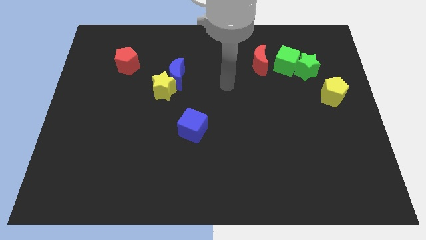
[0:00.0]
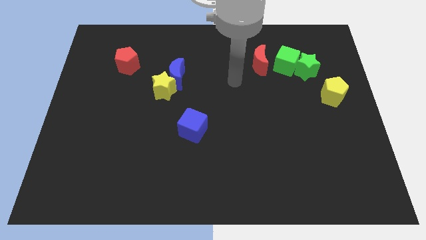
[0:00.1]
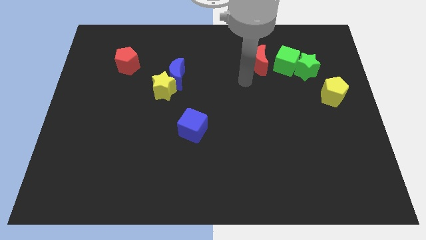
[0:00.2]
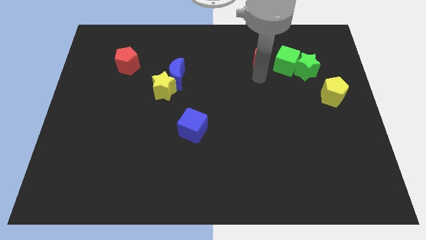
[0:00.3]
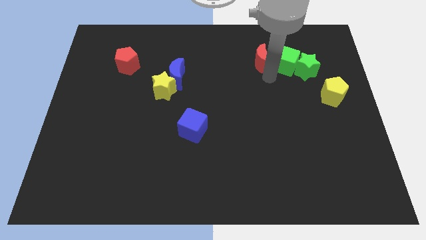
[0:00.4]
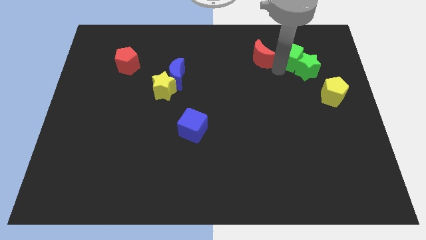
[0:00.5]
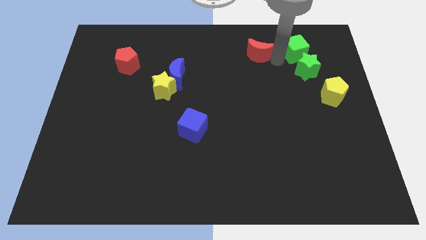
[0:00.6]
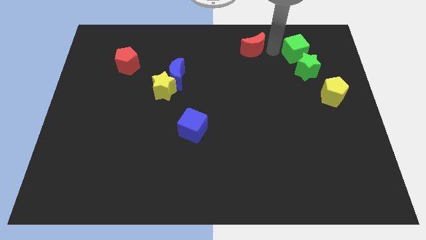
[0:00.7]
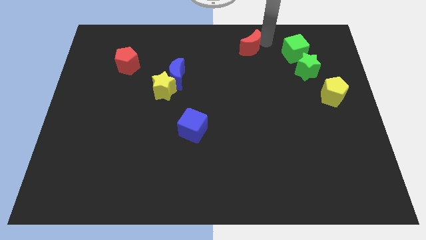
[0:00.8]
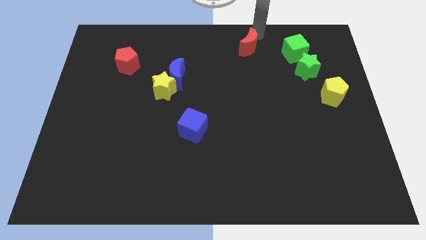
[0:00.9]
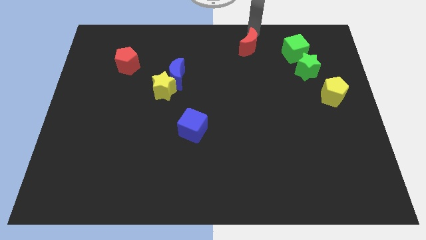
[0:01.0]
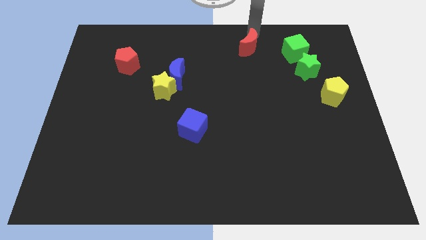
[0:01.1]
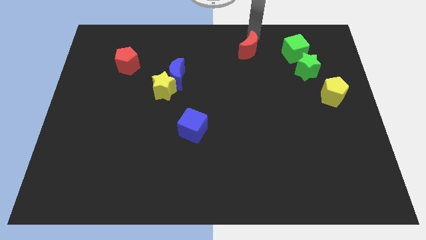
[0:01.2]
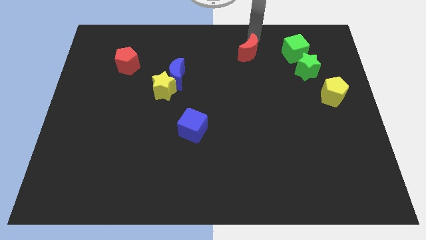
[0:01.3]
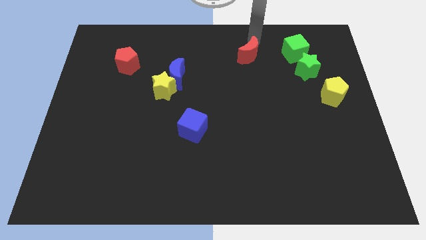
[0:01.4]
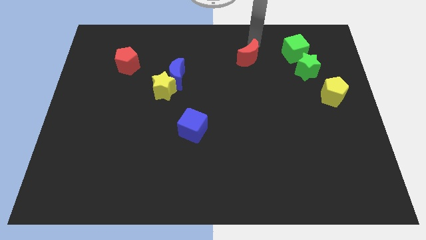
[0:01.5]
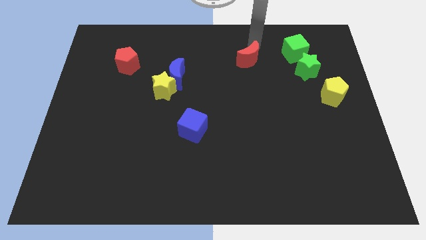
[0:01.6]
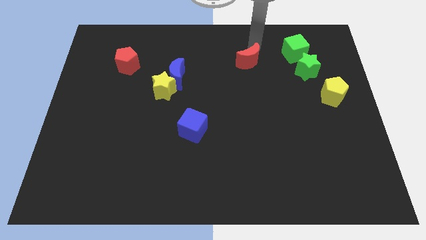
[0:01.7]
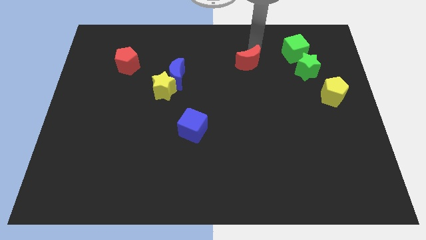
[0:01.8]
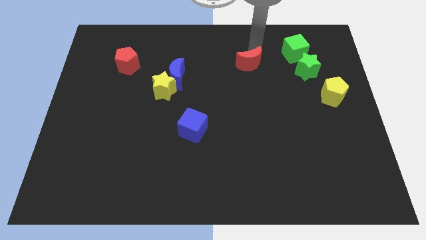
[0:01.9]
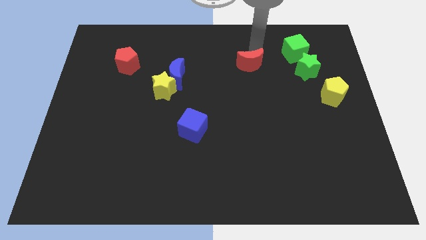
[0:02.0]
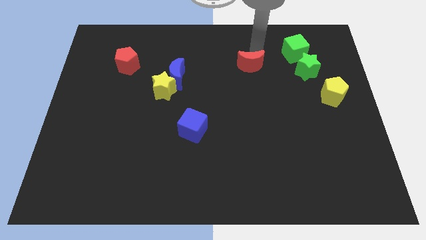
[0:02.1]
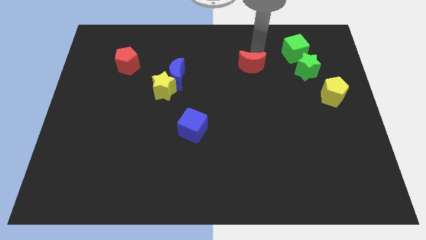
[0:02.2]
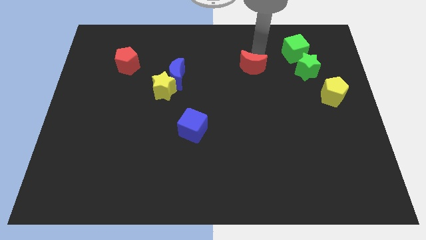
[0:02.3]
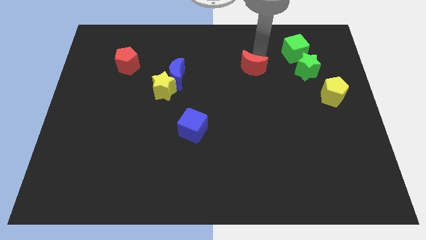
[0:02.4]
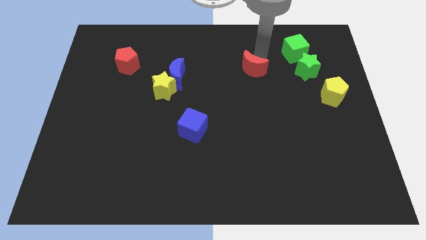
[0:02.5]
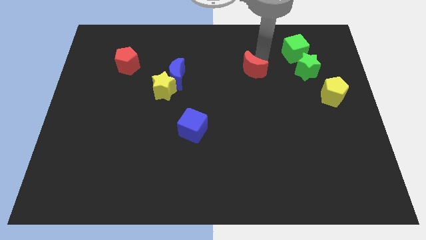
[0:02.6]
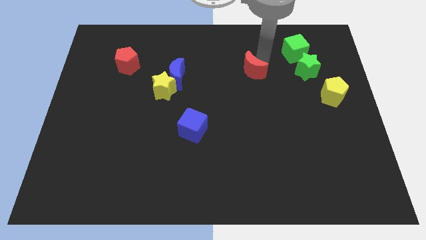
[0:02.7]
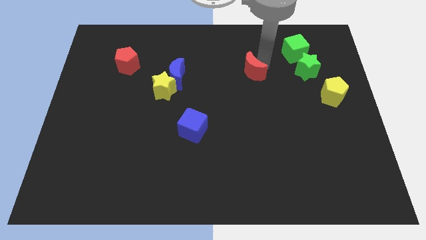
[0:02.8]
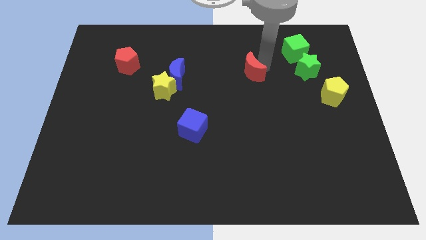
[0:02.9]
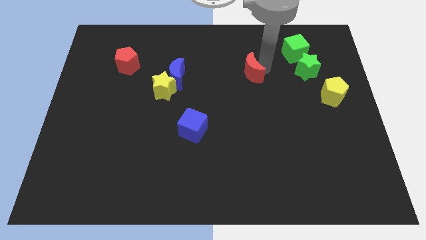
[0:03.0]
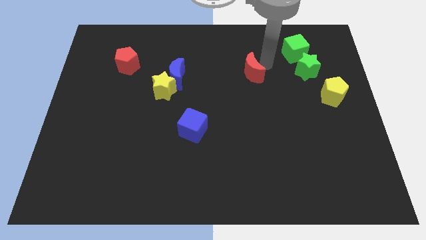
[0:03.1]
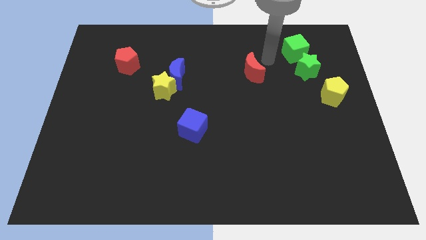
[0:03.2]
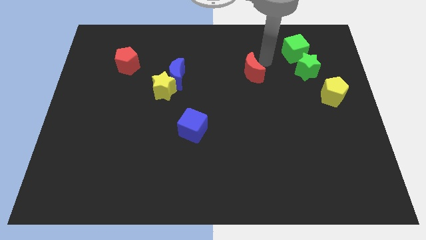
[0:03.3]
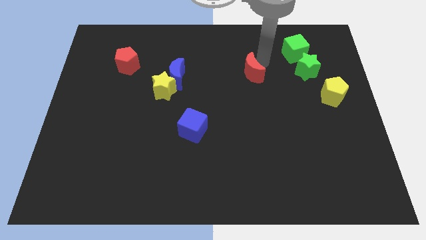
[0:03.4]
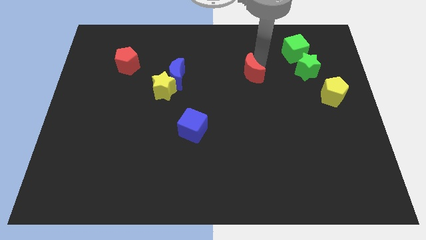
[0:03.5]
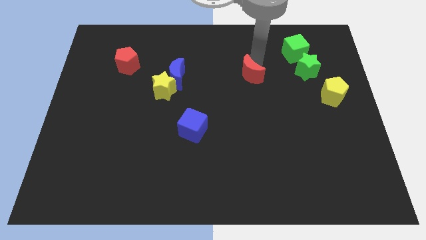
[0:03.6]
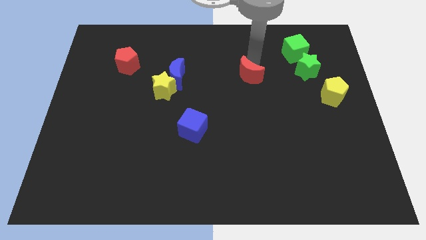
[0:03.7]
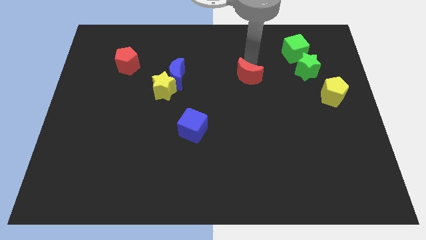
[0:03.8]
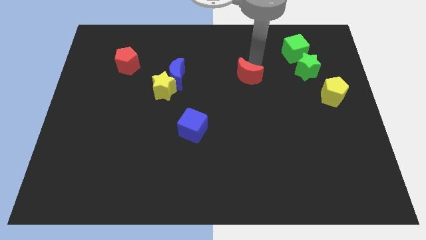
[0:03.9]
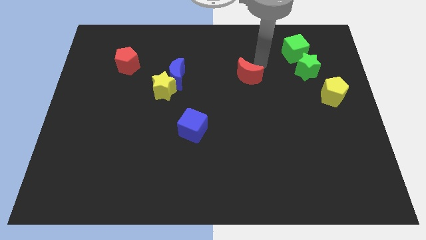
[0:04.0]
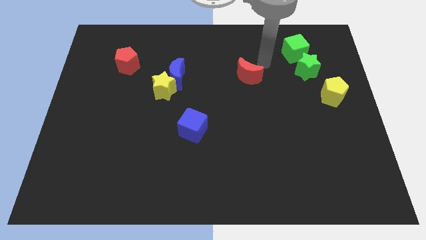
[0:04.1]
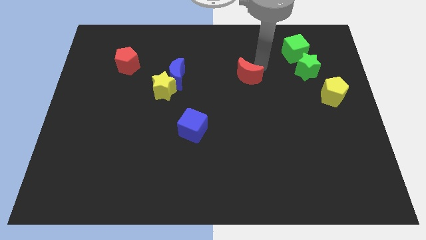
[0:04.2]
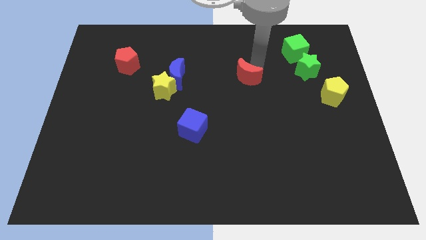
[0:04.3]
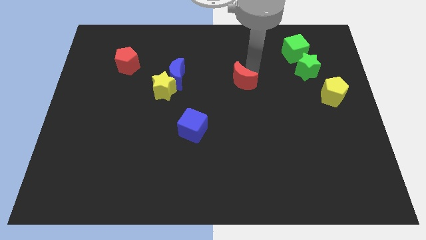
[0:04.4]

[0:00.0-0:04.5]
move the red moon down and to the left diagonally a bit

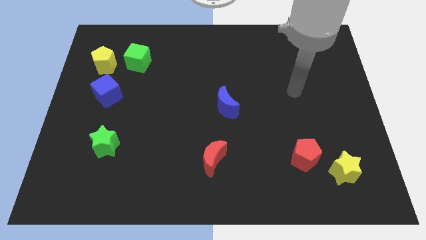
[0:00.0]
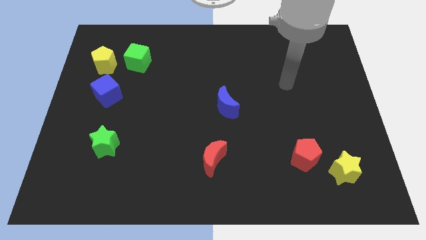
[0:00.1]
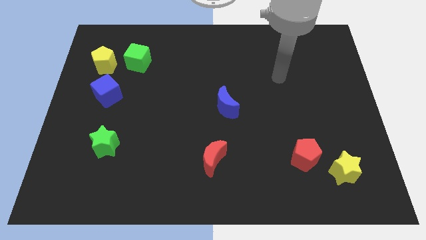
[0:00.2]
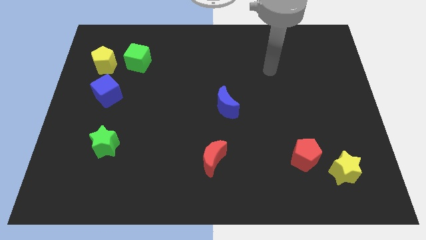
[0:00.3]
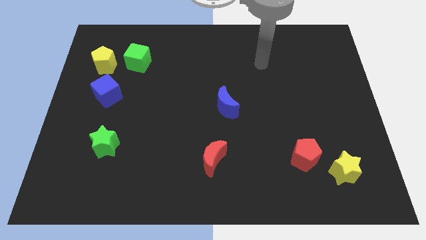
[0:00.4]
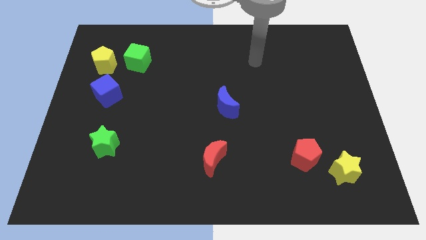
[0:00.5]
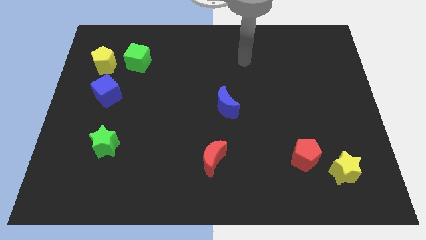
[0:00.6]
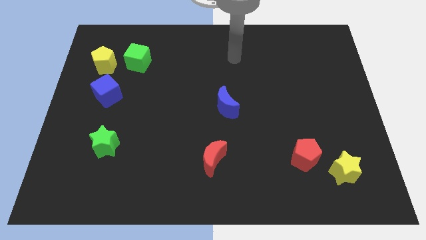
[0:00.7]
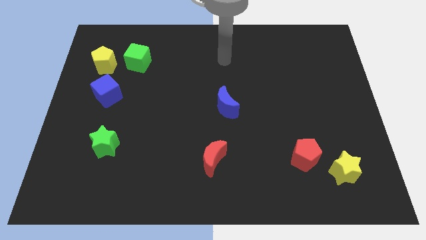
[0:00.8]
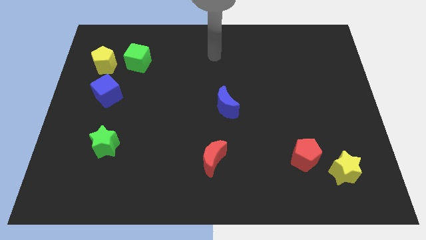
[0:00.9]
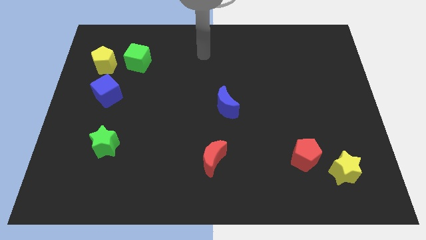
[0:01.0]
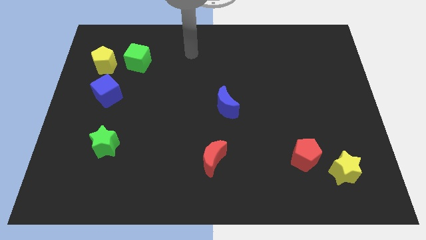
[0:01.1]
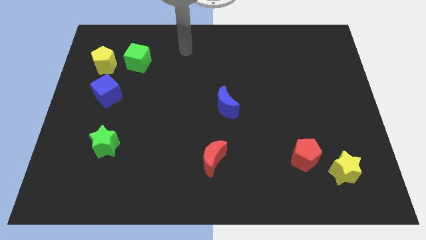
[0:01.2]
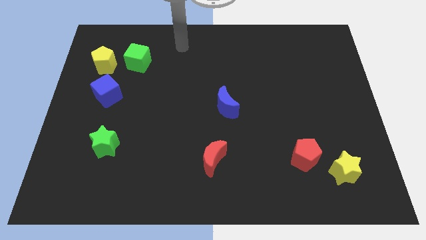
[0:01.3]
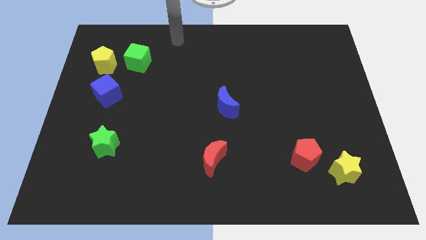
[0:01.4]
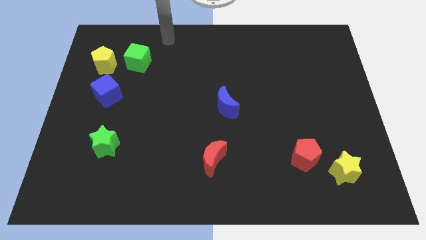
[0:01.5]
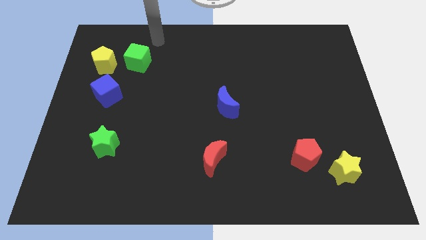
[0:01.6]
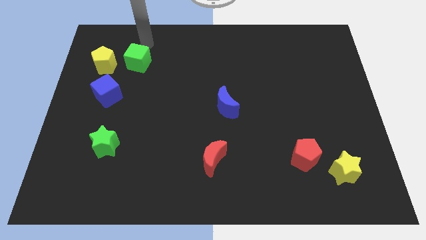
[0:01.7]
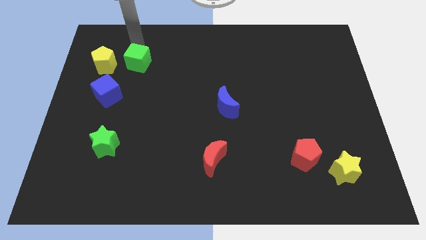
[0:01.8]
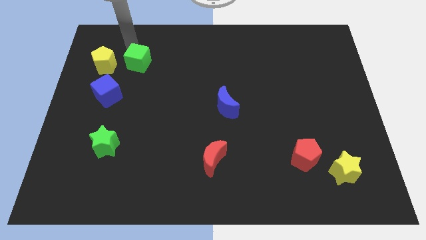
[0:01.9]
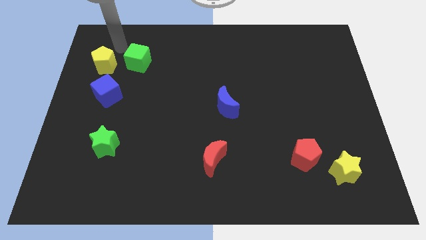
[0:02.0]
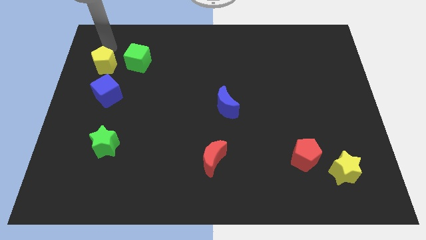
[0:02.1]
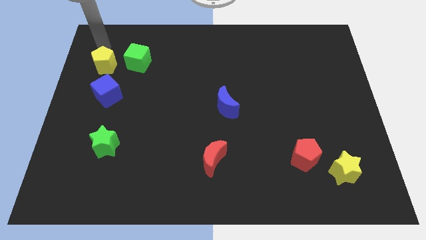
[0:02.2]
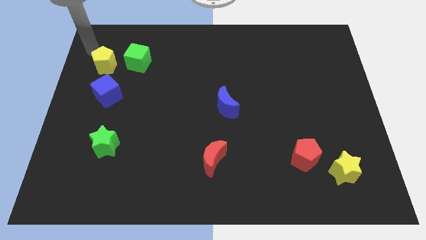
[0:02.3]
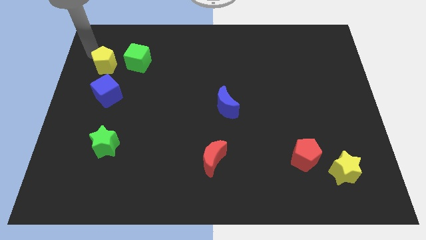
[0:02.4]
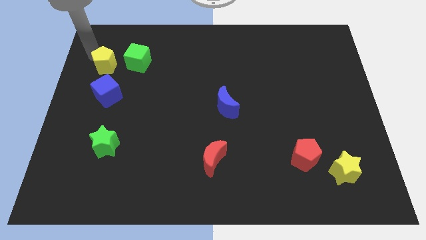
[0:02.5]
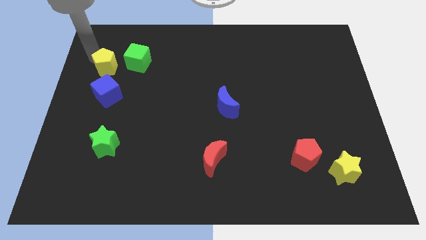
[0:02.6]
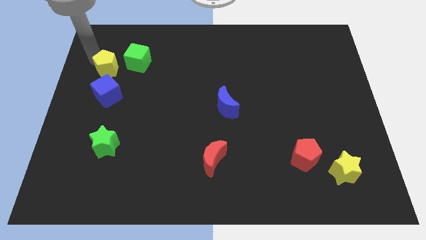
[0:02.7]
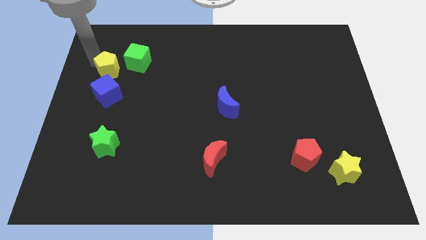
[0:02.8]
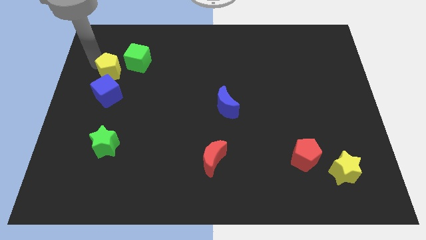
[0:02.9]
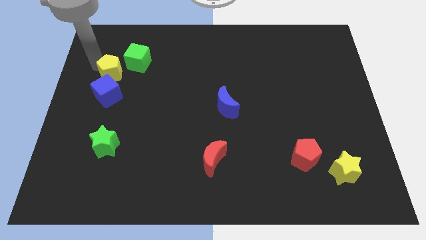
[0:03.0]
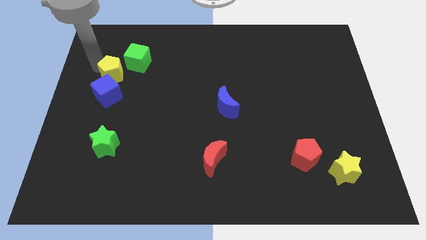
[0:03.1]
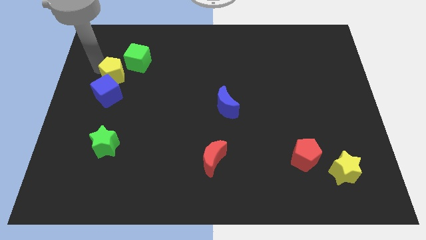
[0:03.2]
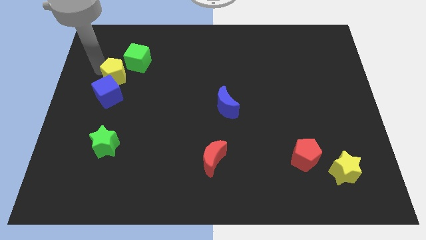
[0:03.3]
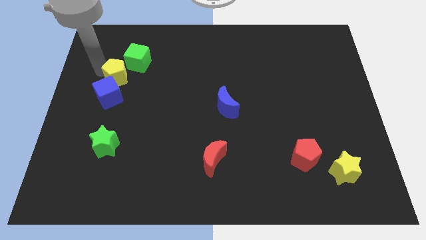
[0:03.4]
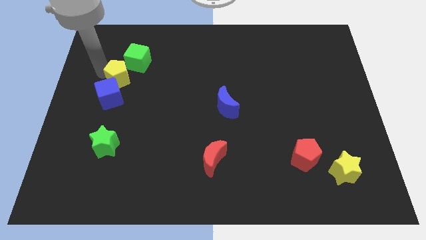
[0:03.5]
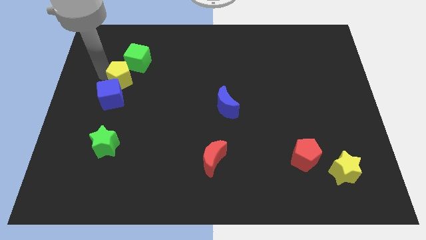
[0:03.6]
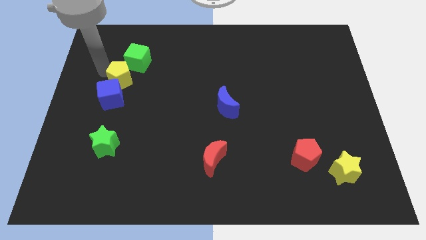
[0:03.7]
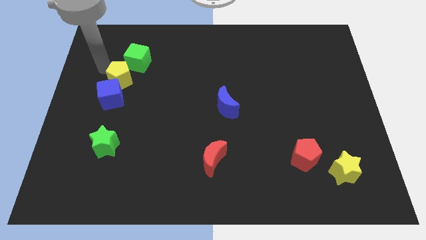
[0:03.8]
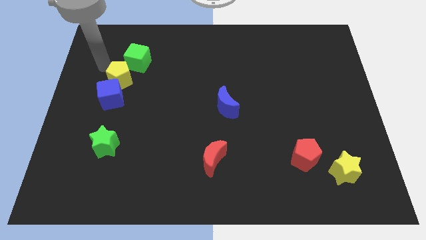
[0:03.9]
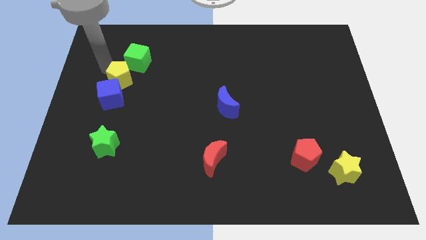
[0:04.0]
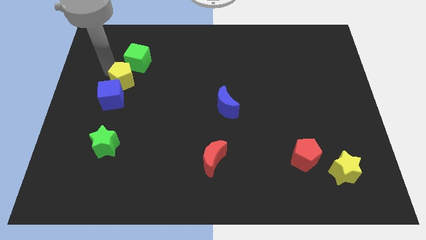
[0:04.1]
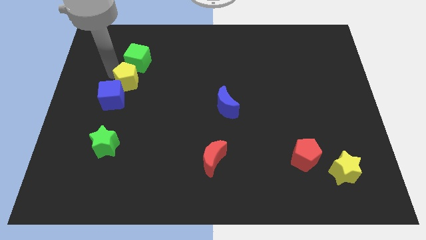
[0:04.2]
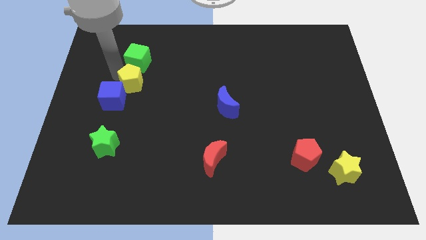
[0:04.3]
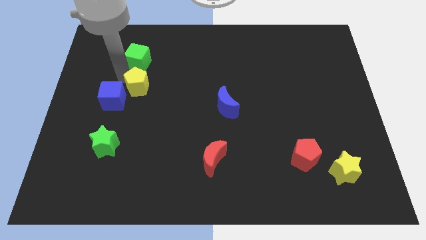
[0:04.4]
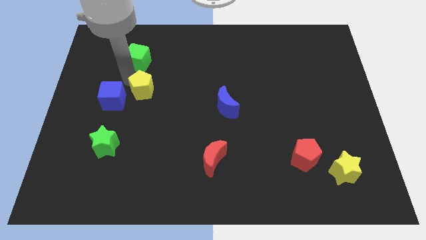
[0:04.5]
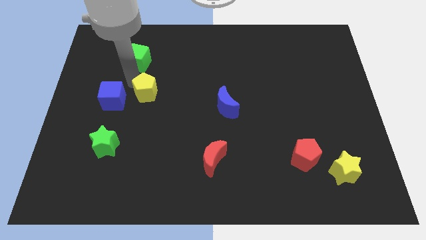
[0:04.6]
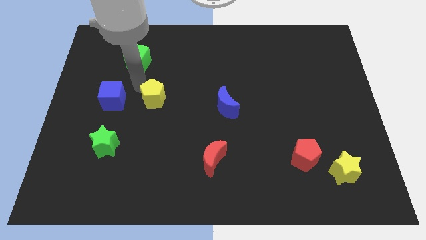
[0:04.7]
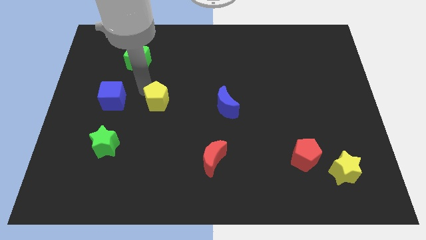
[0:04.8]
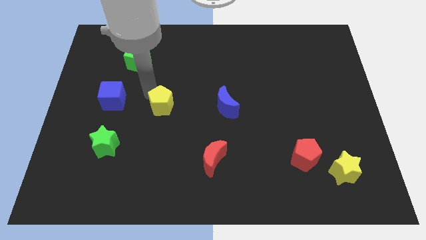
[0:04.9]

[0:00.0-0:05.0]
move the yellow pentagon downwards and then right
